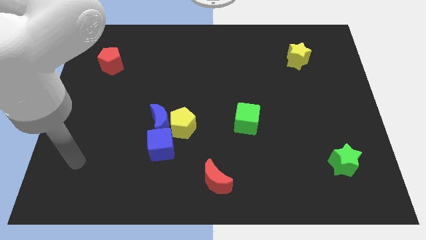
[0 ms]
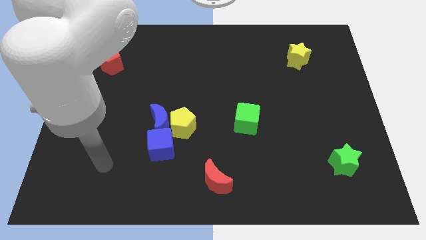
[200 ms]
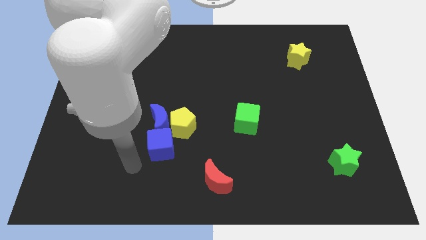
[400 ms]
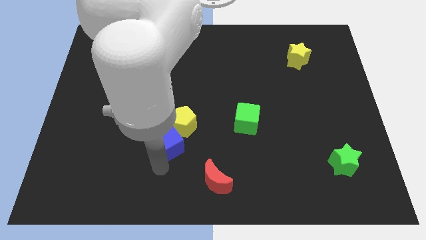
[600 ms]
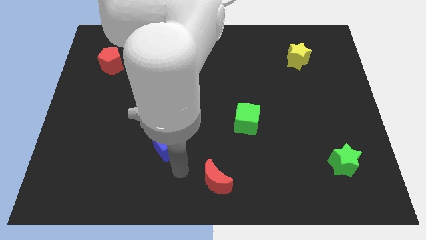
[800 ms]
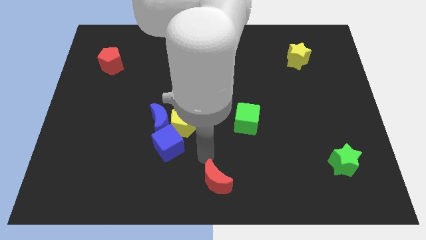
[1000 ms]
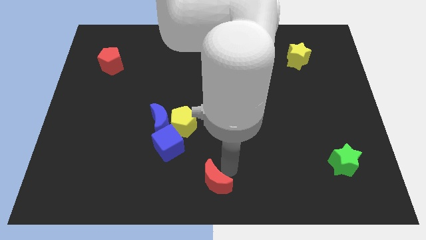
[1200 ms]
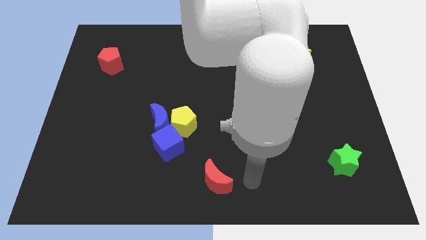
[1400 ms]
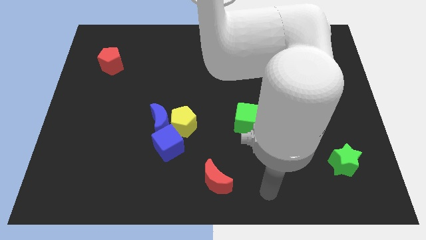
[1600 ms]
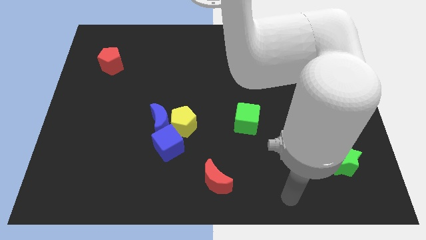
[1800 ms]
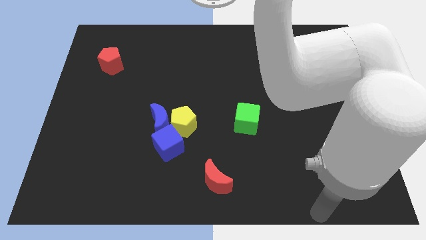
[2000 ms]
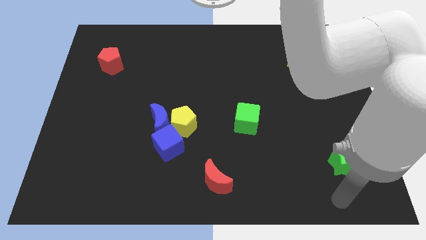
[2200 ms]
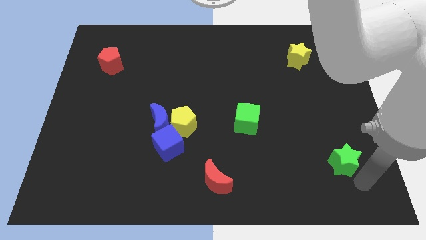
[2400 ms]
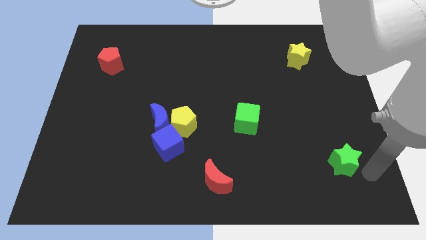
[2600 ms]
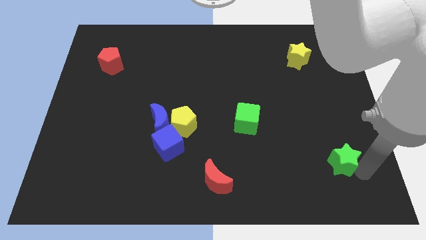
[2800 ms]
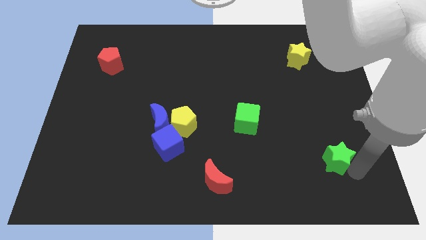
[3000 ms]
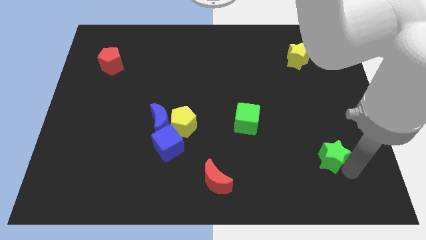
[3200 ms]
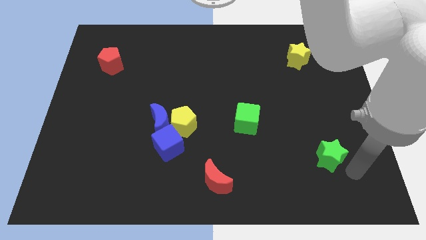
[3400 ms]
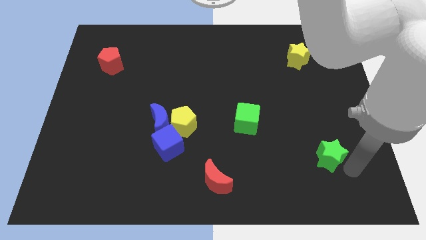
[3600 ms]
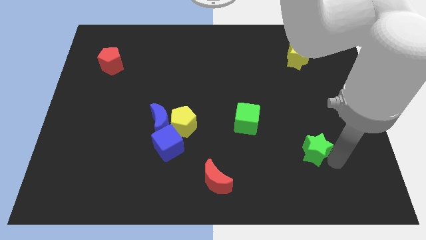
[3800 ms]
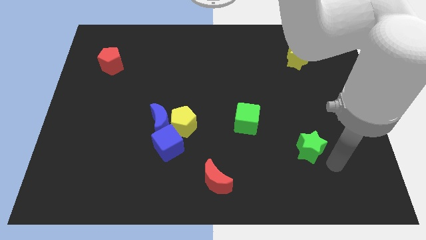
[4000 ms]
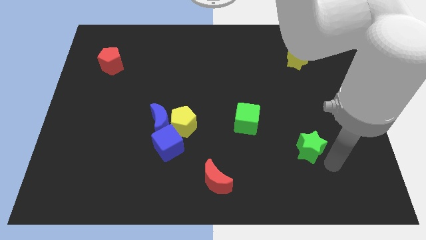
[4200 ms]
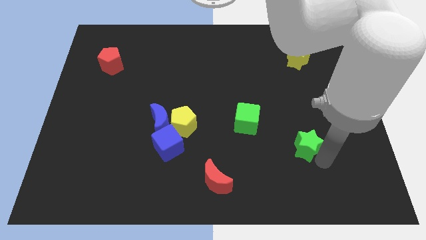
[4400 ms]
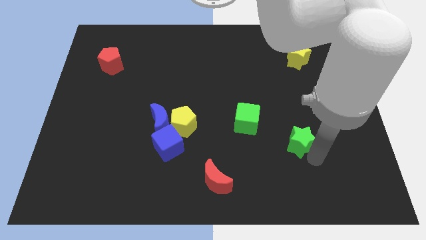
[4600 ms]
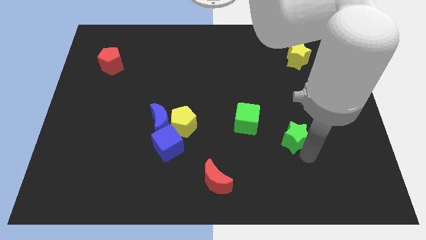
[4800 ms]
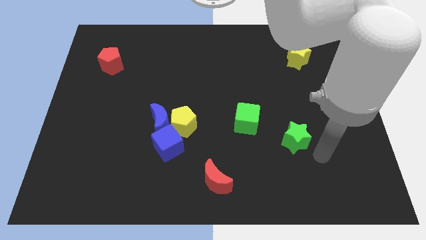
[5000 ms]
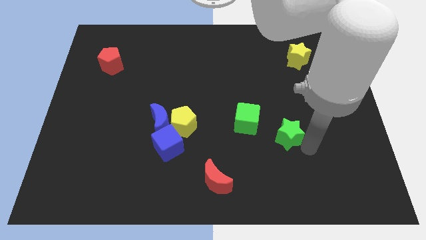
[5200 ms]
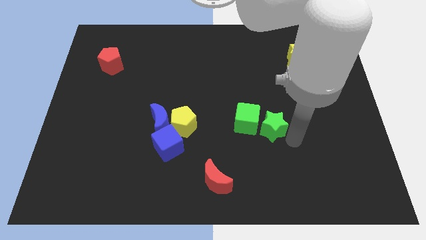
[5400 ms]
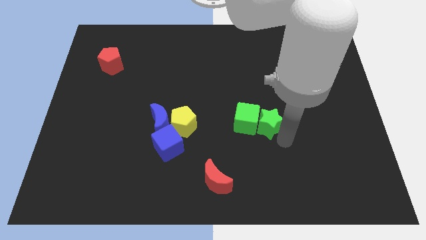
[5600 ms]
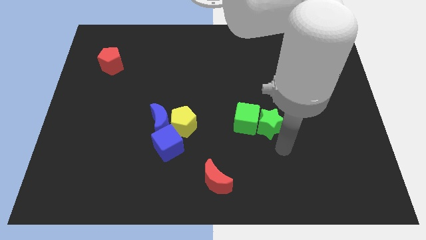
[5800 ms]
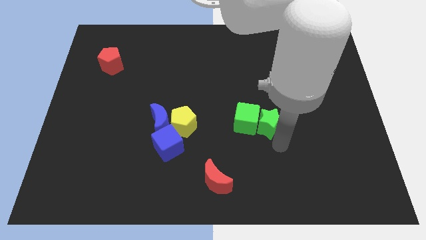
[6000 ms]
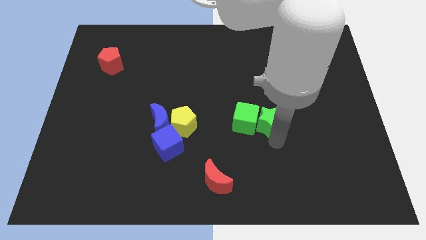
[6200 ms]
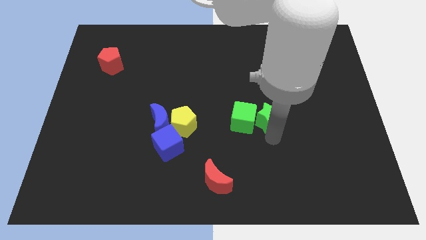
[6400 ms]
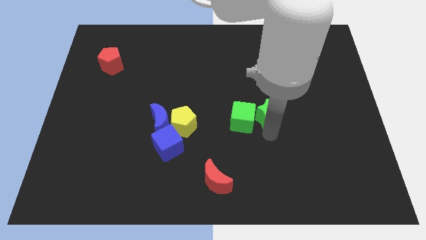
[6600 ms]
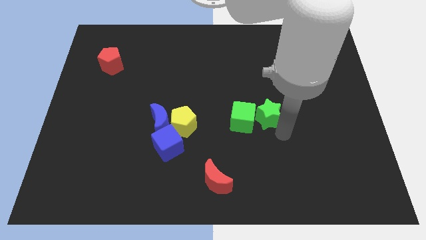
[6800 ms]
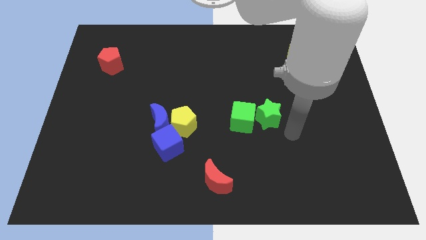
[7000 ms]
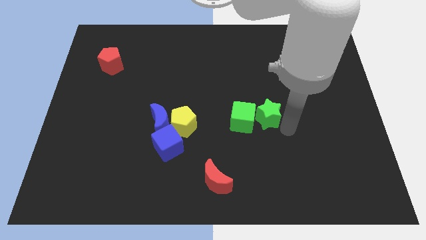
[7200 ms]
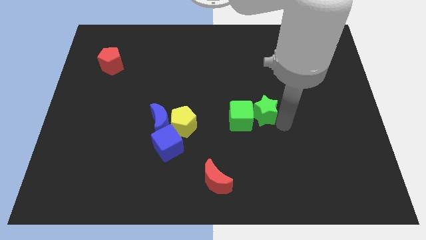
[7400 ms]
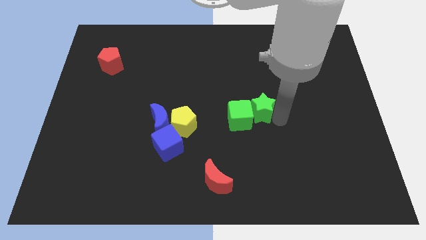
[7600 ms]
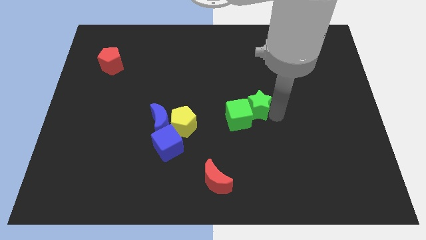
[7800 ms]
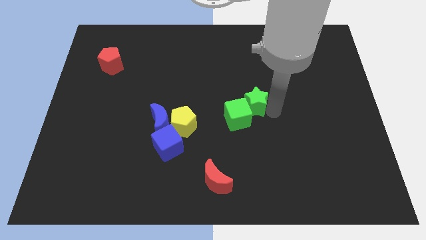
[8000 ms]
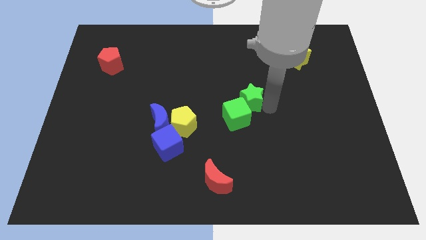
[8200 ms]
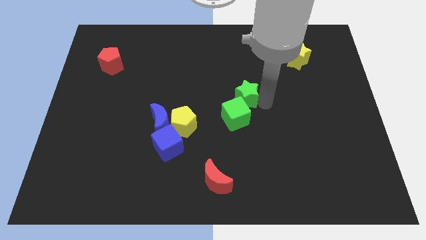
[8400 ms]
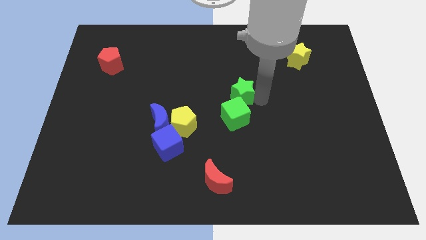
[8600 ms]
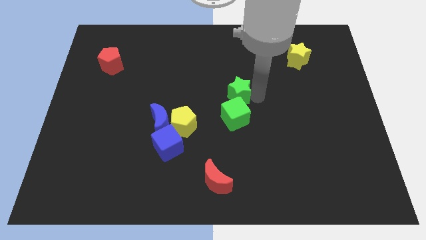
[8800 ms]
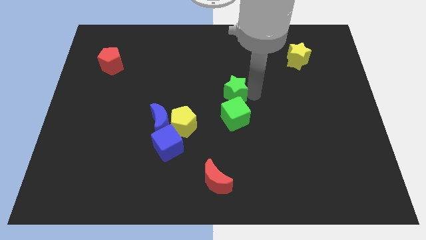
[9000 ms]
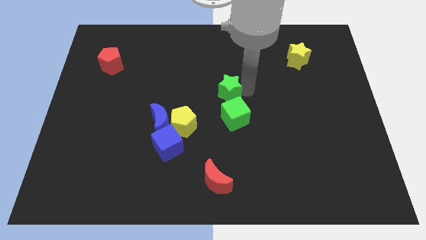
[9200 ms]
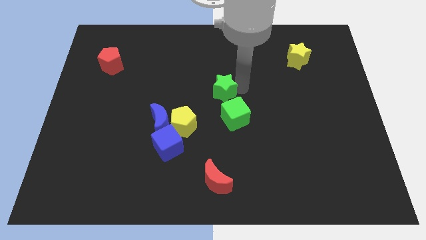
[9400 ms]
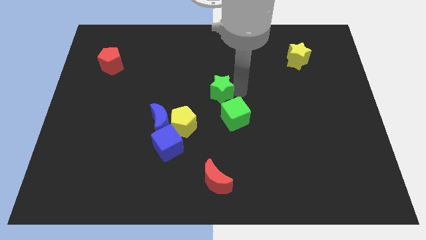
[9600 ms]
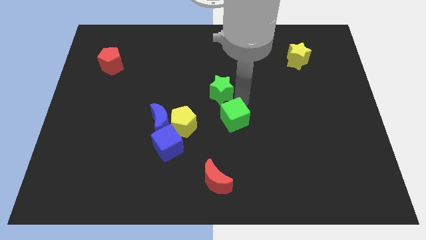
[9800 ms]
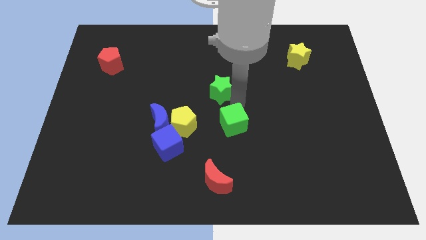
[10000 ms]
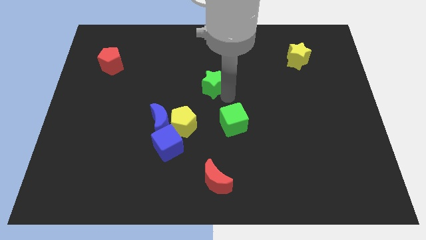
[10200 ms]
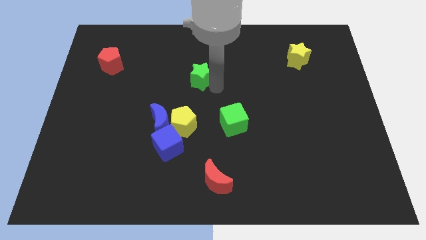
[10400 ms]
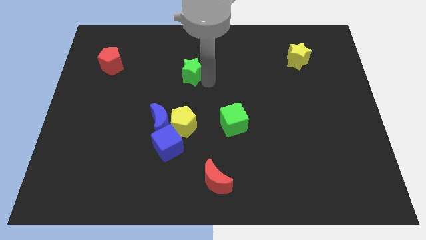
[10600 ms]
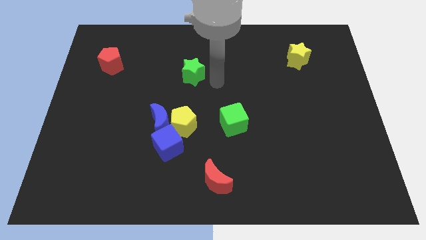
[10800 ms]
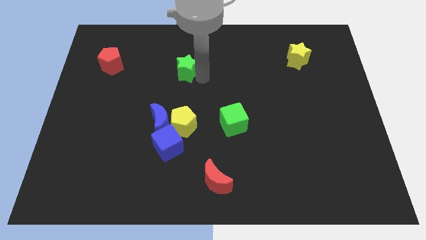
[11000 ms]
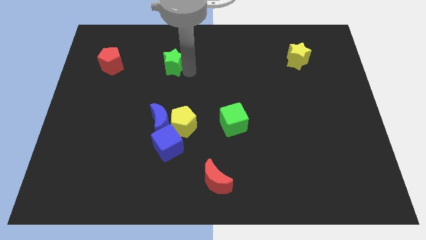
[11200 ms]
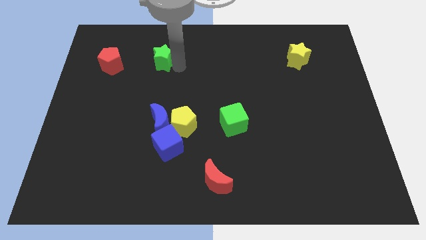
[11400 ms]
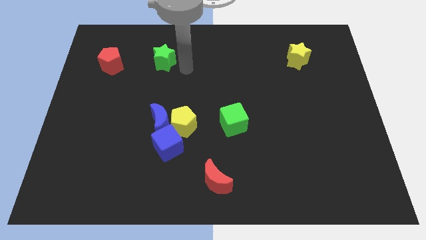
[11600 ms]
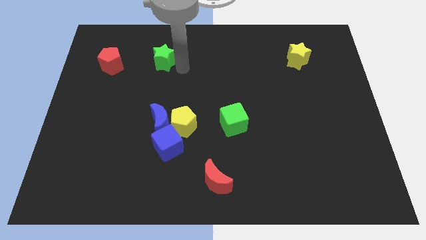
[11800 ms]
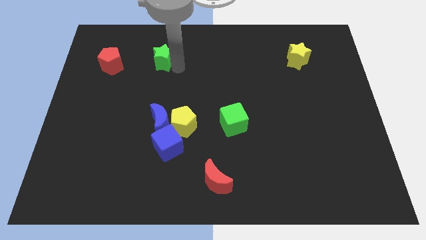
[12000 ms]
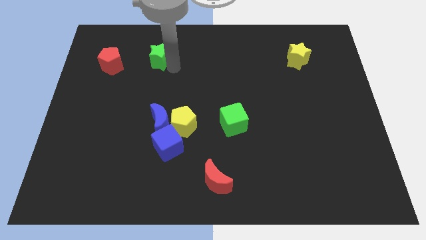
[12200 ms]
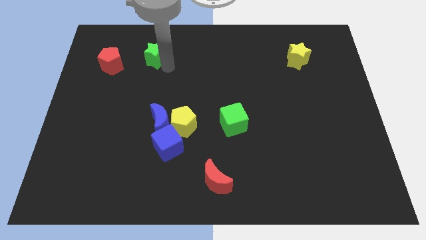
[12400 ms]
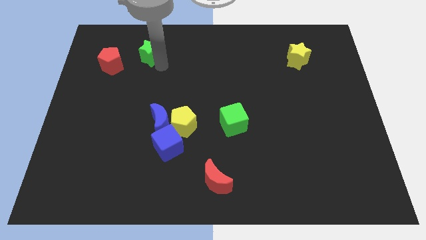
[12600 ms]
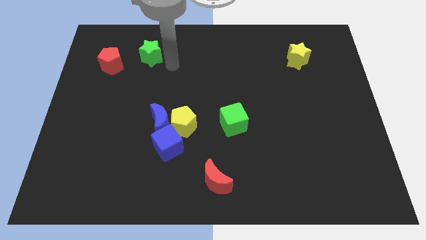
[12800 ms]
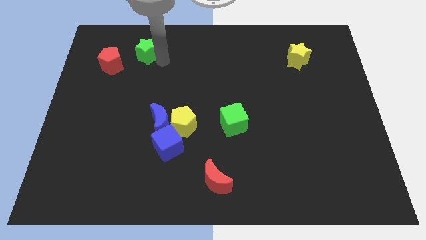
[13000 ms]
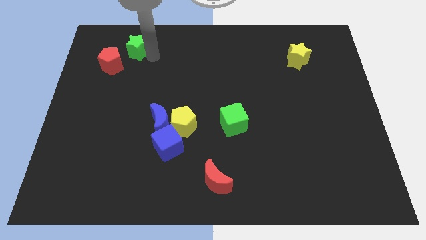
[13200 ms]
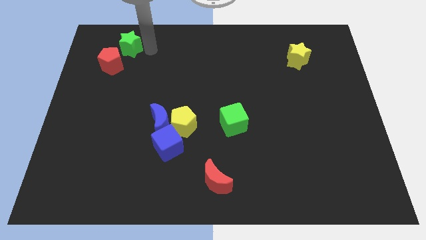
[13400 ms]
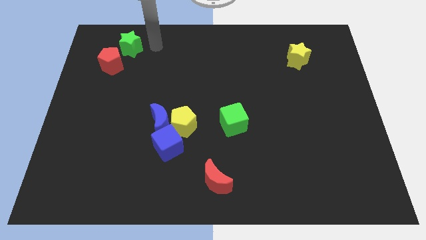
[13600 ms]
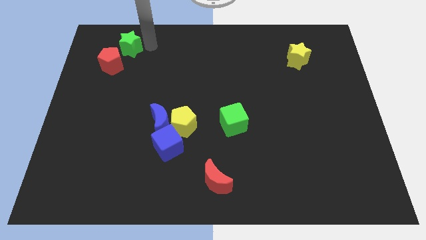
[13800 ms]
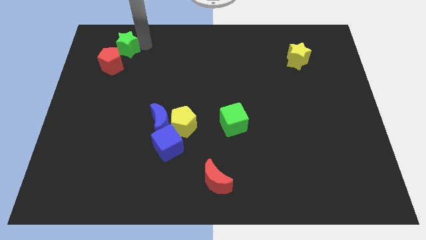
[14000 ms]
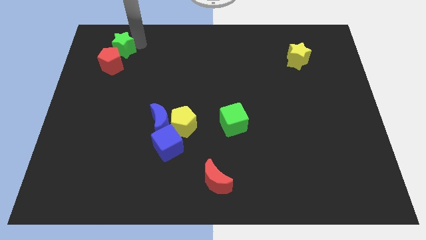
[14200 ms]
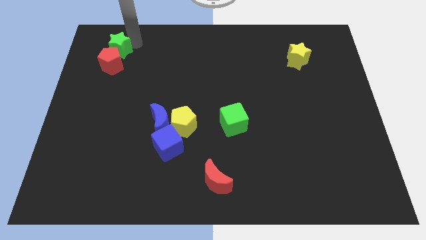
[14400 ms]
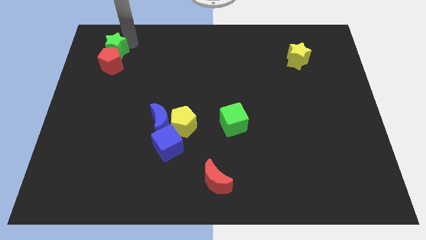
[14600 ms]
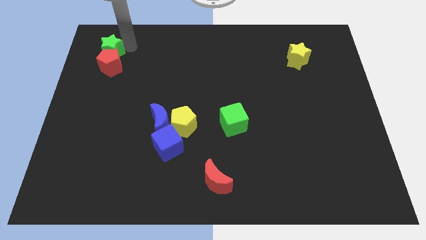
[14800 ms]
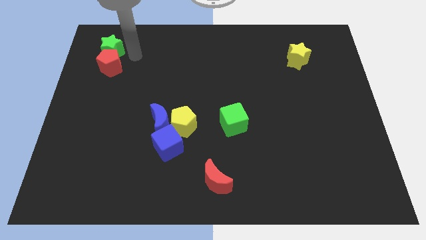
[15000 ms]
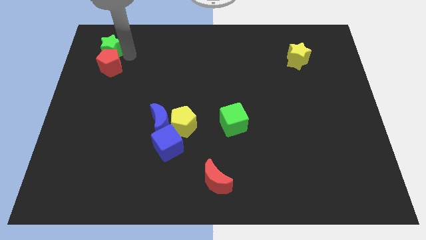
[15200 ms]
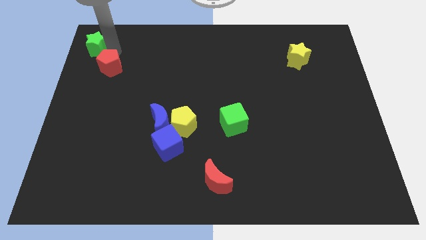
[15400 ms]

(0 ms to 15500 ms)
slide the green star to the top left
